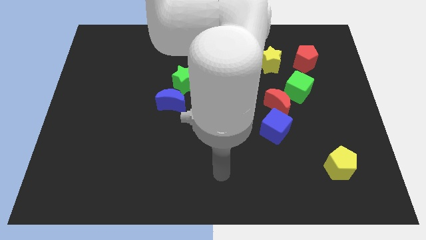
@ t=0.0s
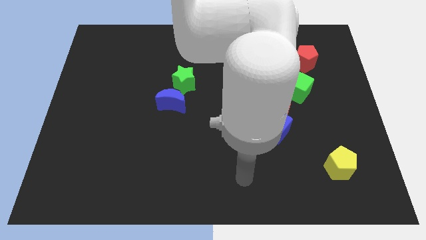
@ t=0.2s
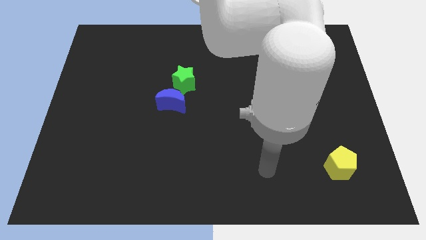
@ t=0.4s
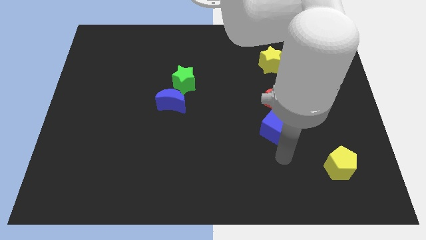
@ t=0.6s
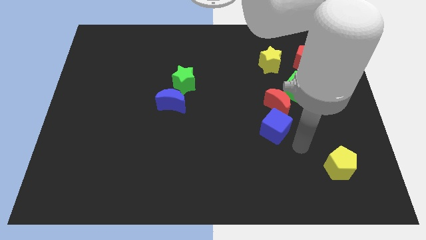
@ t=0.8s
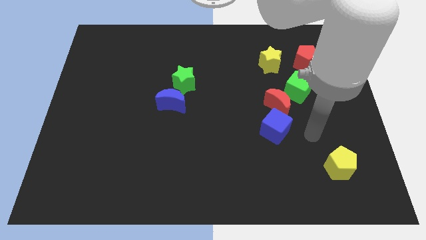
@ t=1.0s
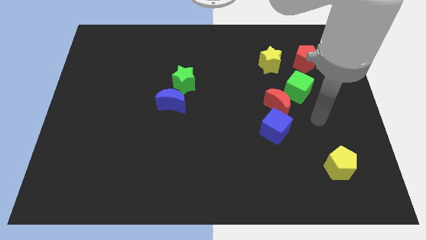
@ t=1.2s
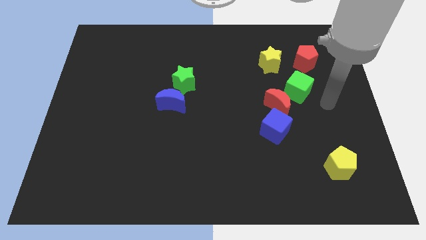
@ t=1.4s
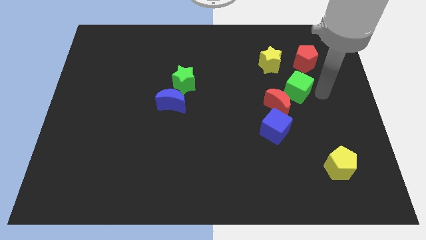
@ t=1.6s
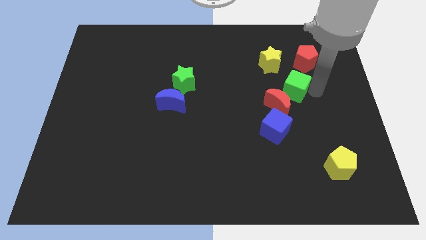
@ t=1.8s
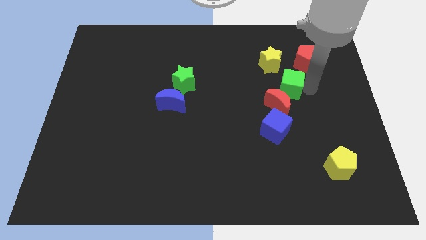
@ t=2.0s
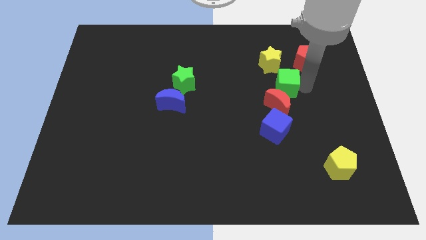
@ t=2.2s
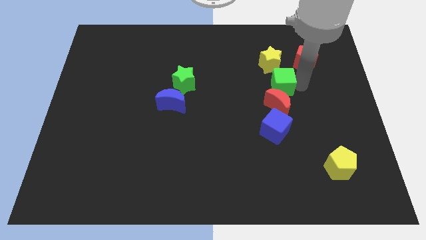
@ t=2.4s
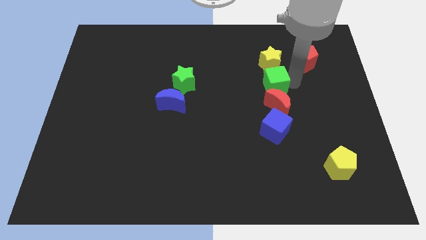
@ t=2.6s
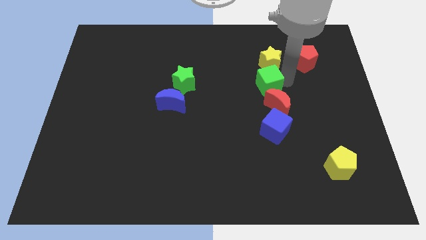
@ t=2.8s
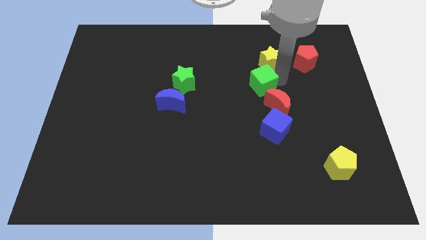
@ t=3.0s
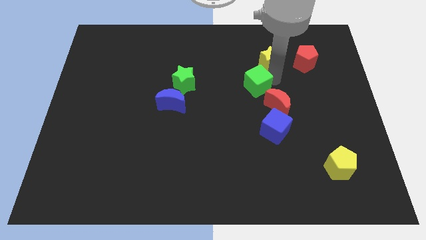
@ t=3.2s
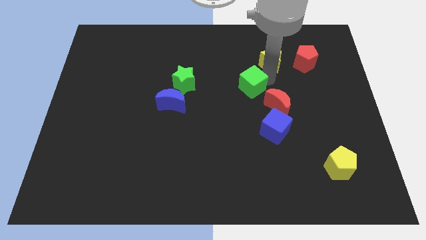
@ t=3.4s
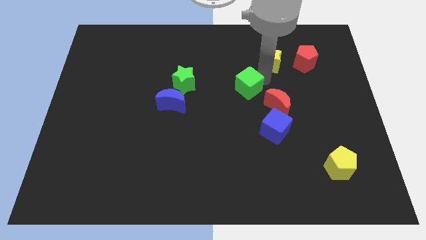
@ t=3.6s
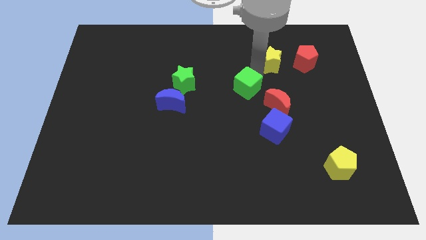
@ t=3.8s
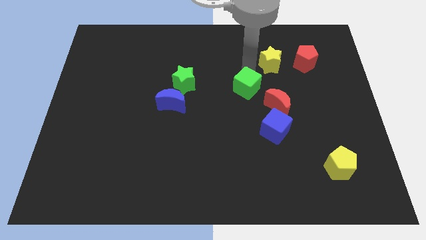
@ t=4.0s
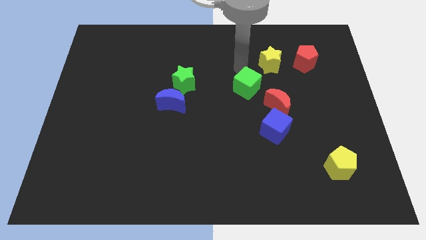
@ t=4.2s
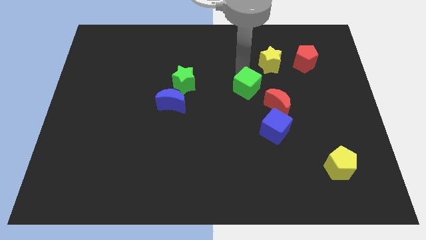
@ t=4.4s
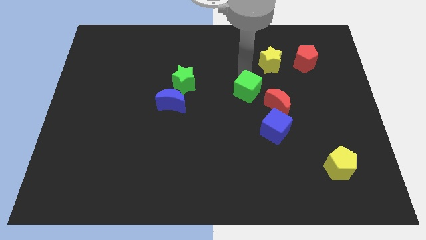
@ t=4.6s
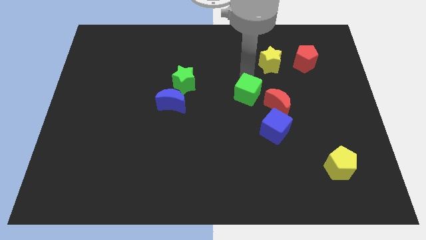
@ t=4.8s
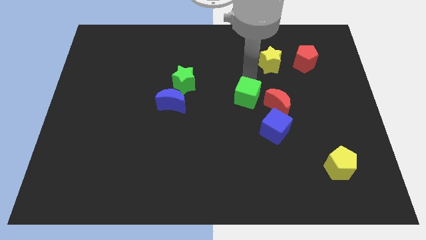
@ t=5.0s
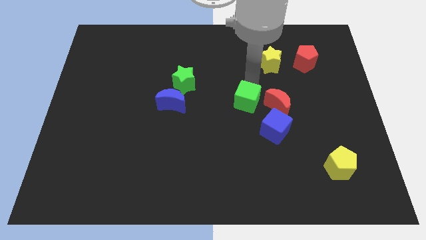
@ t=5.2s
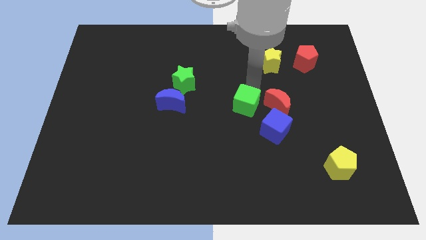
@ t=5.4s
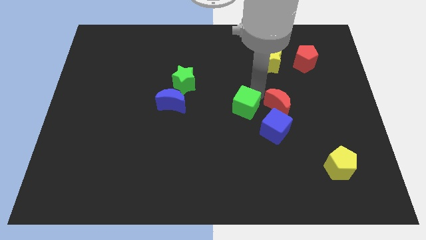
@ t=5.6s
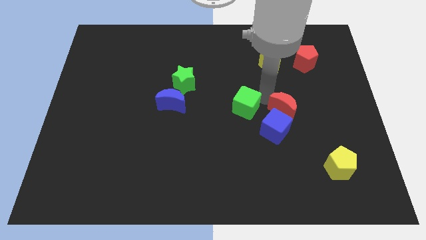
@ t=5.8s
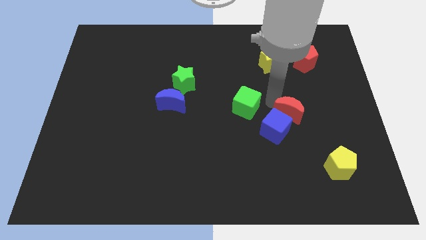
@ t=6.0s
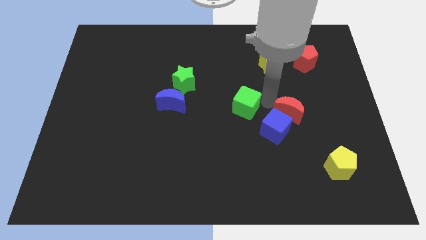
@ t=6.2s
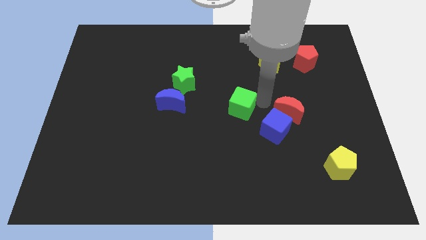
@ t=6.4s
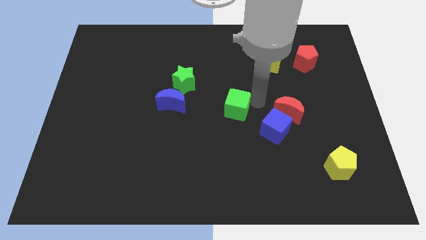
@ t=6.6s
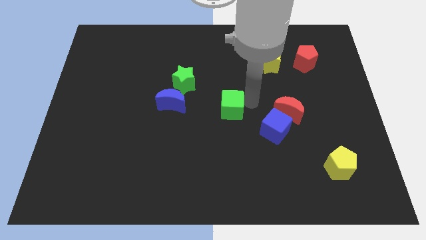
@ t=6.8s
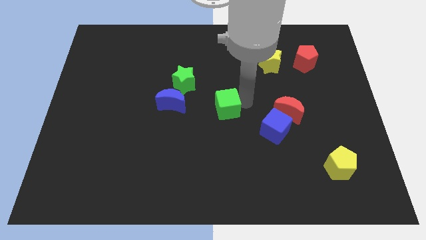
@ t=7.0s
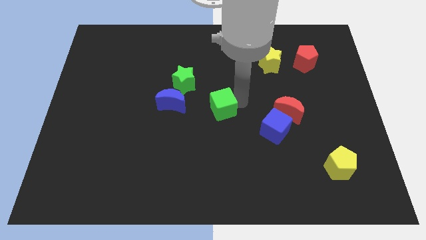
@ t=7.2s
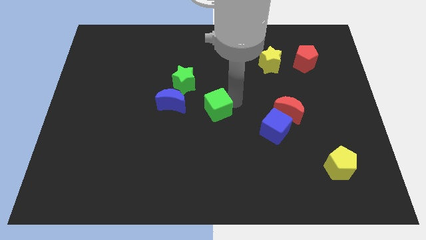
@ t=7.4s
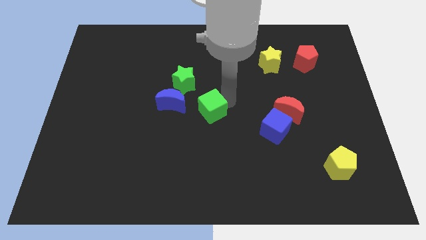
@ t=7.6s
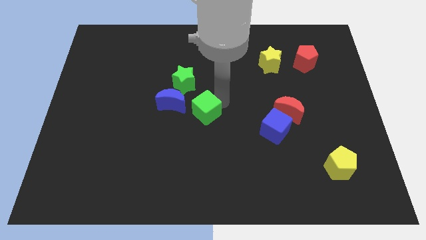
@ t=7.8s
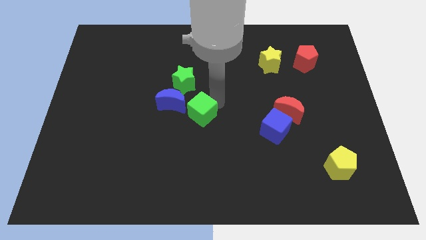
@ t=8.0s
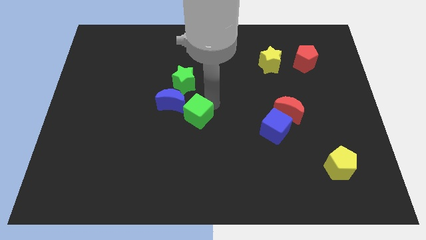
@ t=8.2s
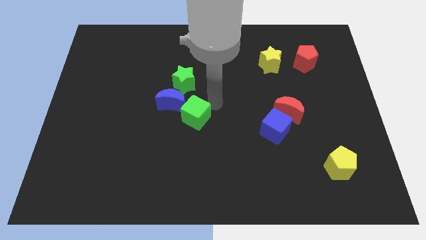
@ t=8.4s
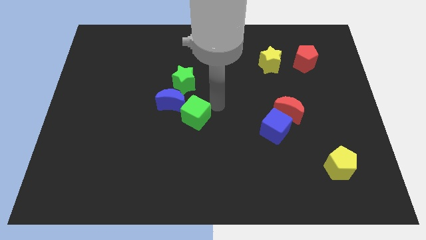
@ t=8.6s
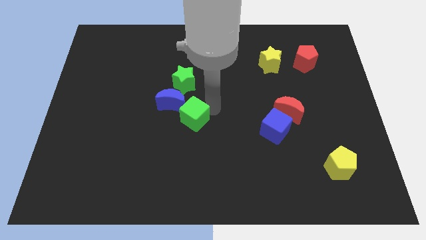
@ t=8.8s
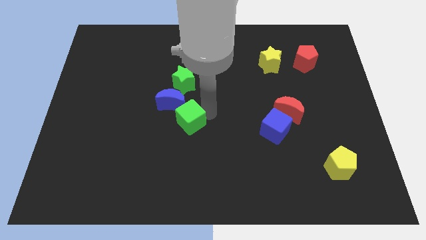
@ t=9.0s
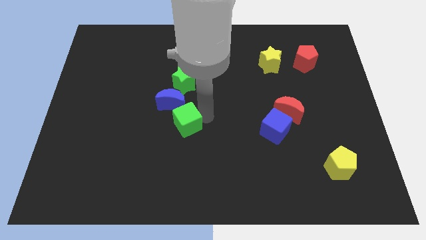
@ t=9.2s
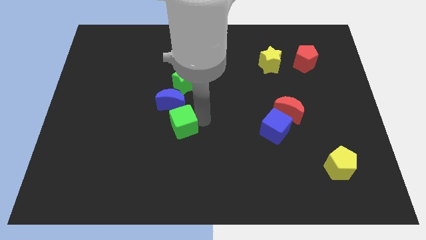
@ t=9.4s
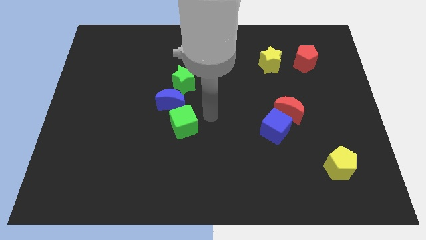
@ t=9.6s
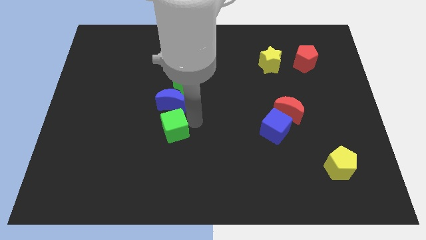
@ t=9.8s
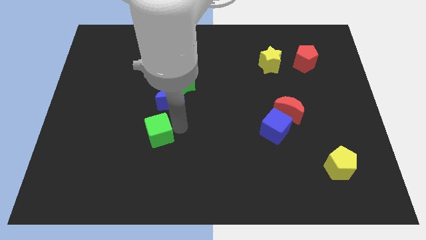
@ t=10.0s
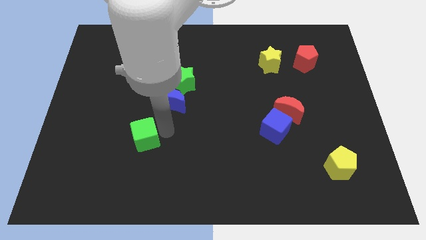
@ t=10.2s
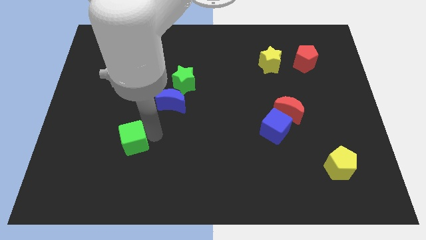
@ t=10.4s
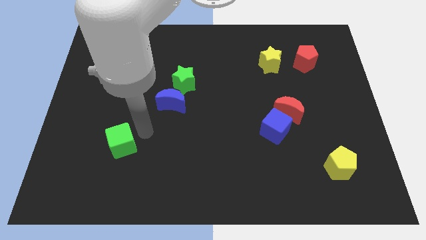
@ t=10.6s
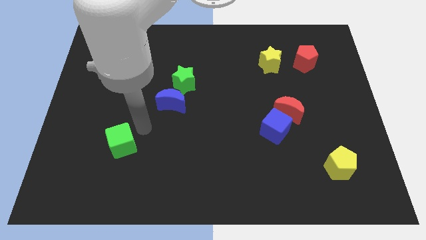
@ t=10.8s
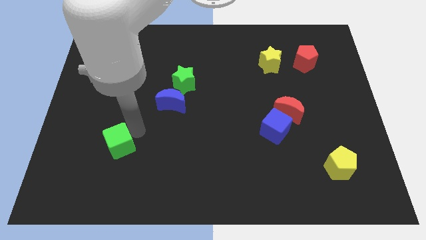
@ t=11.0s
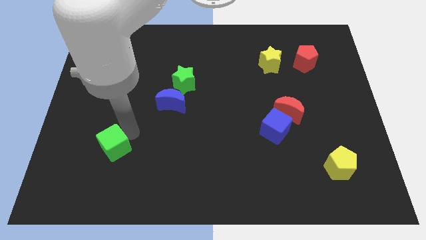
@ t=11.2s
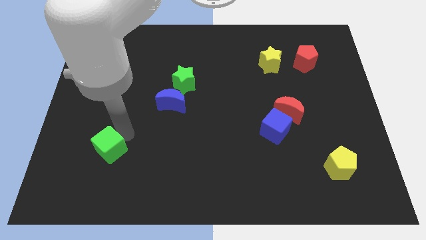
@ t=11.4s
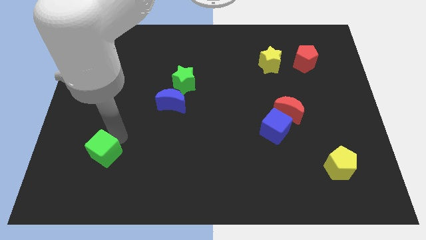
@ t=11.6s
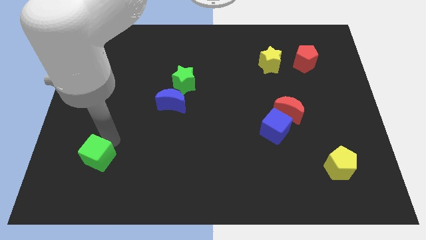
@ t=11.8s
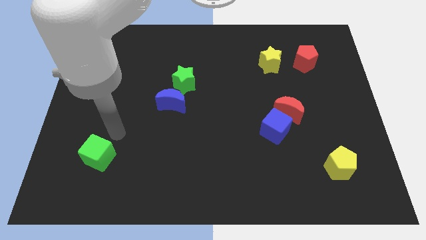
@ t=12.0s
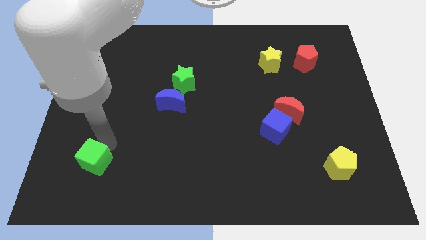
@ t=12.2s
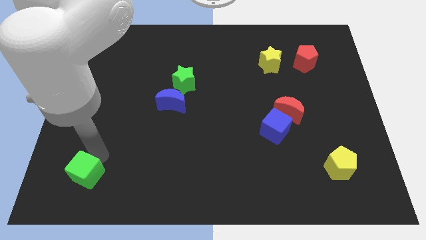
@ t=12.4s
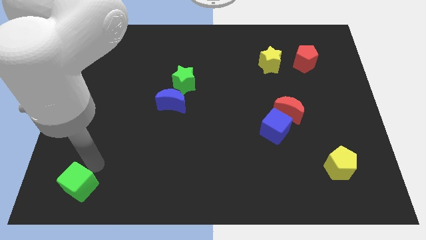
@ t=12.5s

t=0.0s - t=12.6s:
push the green cube to the bottom left of the board

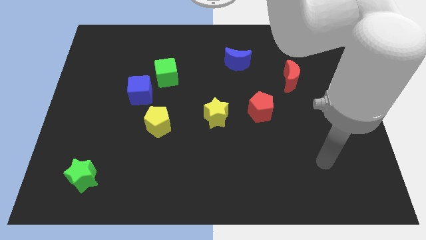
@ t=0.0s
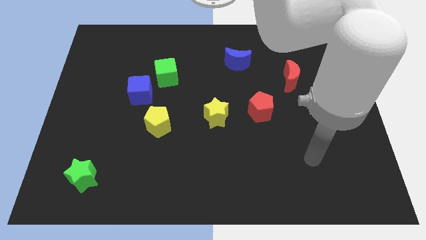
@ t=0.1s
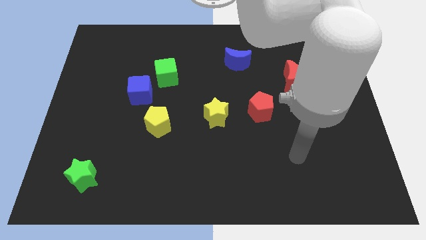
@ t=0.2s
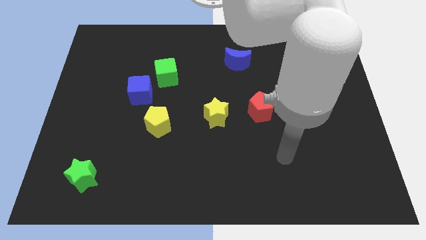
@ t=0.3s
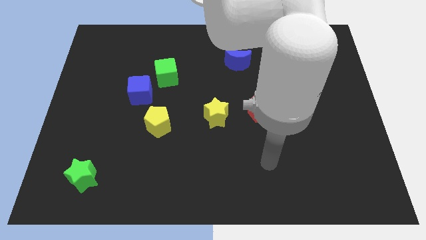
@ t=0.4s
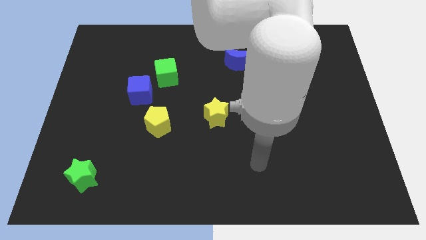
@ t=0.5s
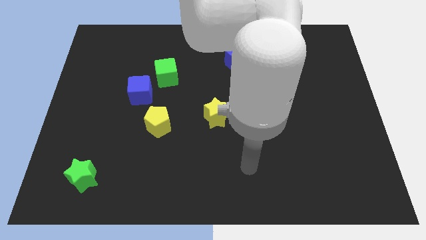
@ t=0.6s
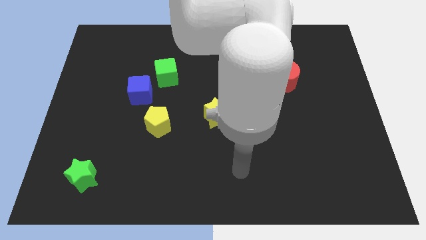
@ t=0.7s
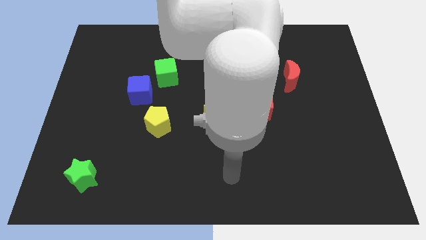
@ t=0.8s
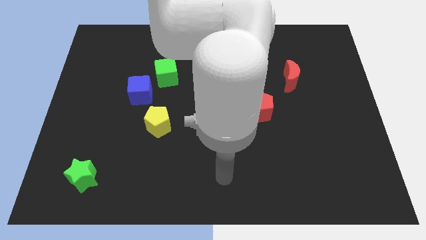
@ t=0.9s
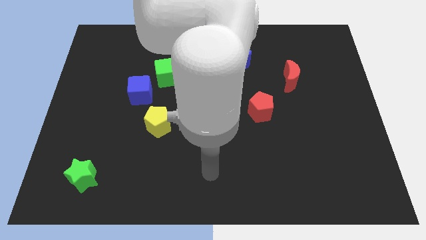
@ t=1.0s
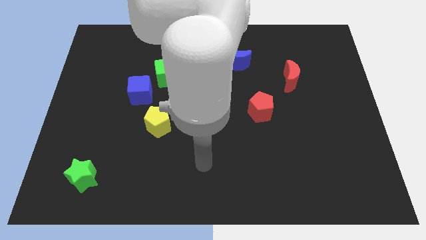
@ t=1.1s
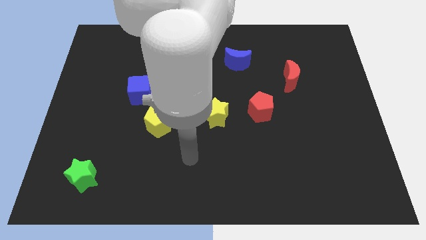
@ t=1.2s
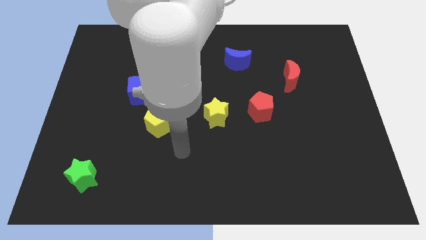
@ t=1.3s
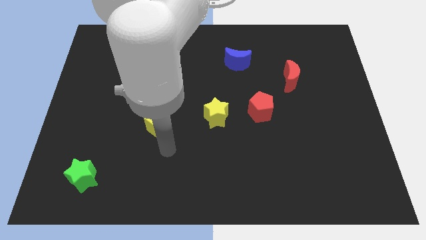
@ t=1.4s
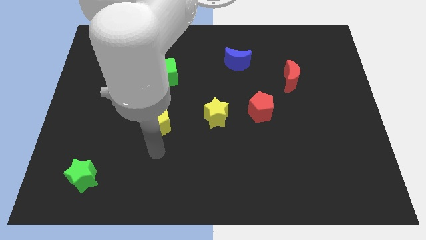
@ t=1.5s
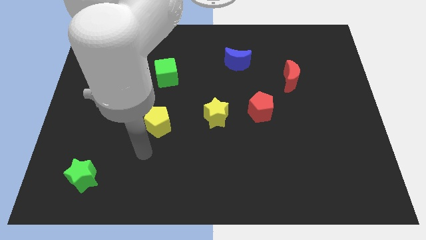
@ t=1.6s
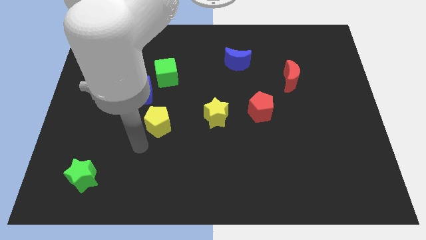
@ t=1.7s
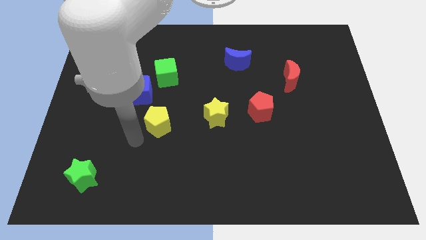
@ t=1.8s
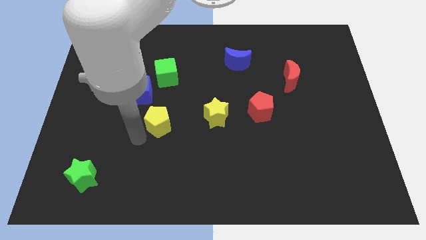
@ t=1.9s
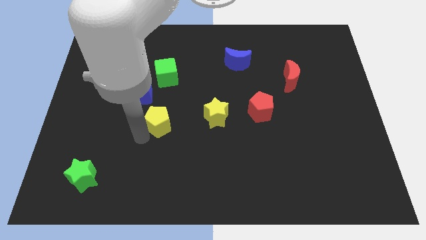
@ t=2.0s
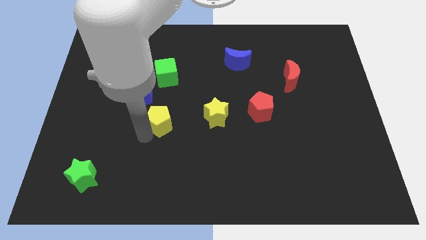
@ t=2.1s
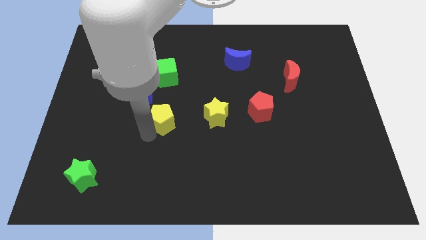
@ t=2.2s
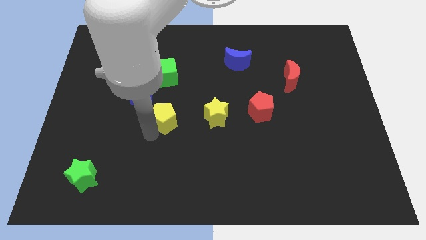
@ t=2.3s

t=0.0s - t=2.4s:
move the yellow pentagon to the middle of the board
